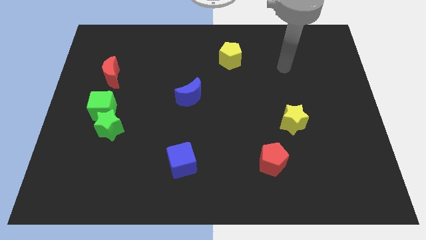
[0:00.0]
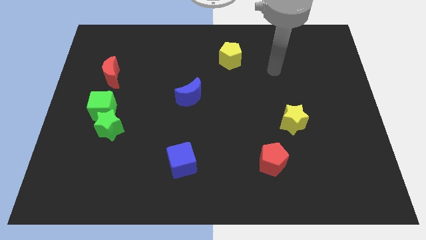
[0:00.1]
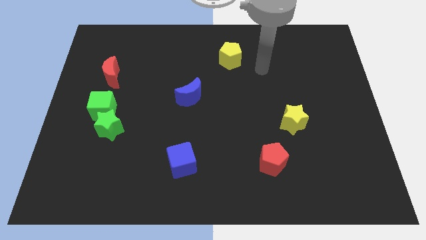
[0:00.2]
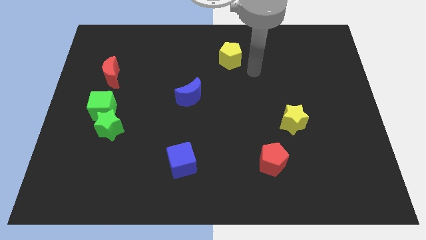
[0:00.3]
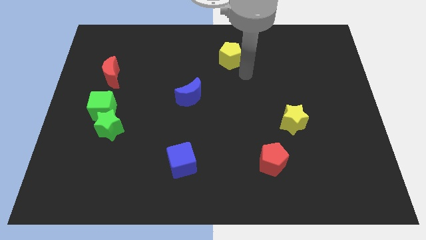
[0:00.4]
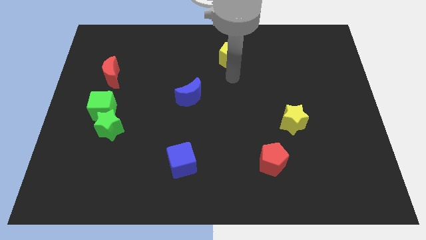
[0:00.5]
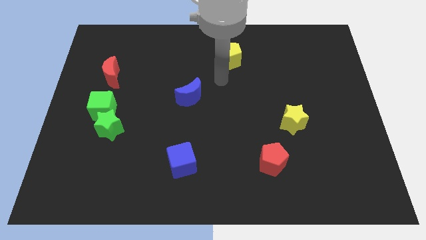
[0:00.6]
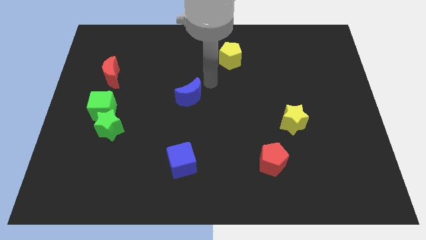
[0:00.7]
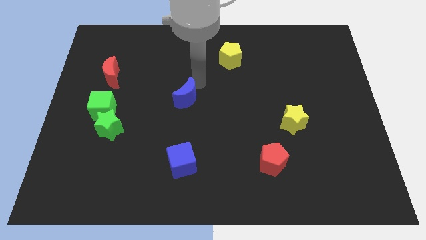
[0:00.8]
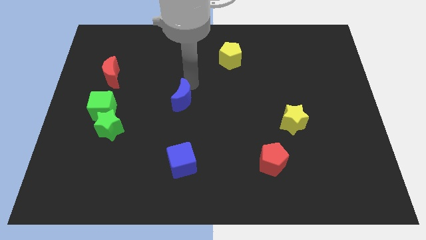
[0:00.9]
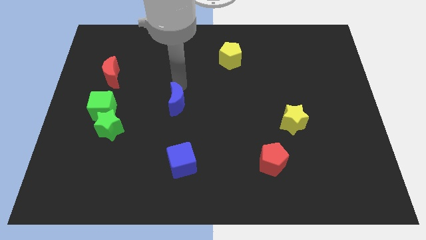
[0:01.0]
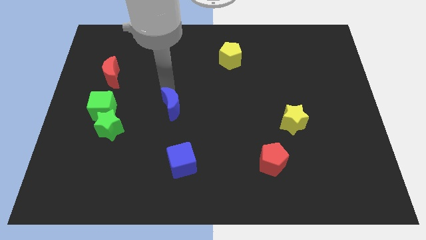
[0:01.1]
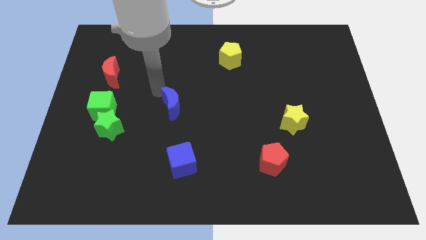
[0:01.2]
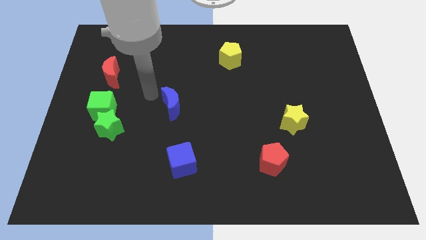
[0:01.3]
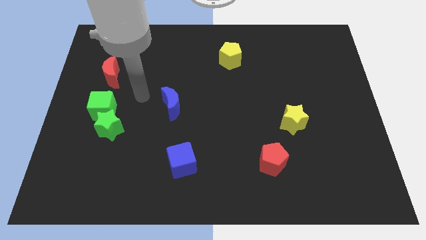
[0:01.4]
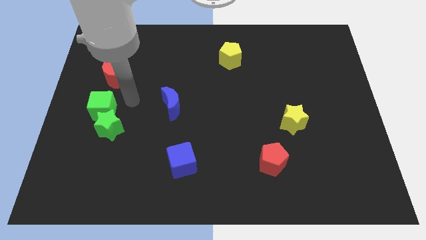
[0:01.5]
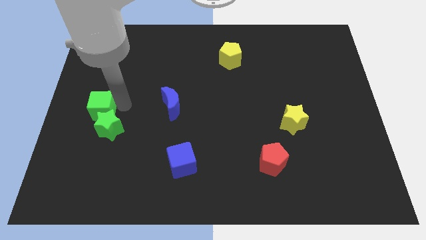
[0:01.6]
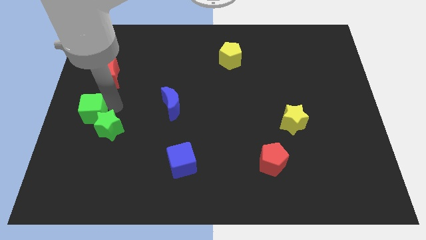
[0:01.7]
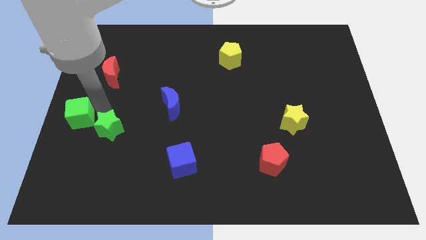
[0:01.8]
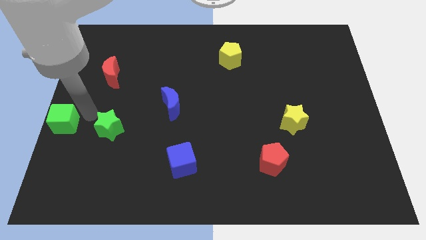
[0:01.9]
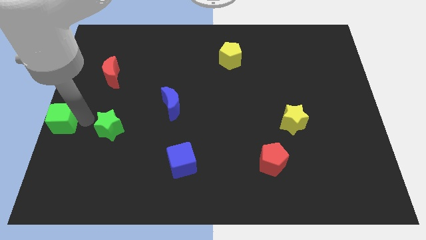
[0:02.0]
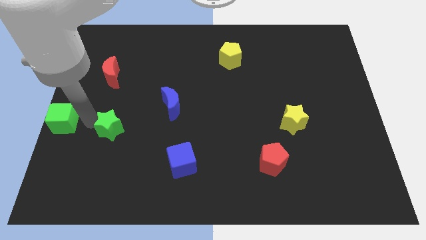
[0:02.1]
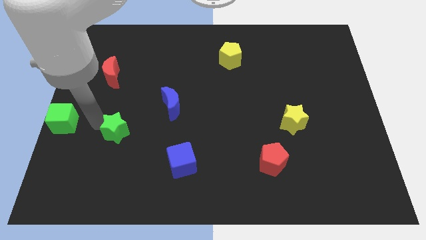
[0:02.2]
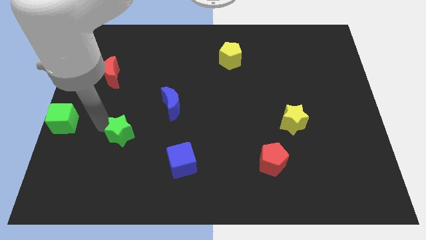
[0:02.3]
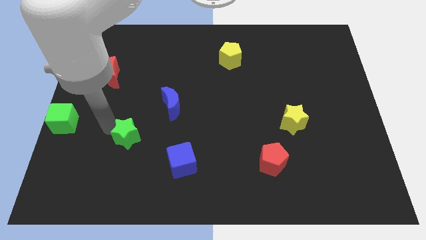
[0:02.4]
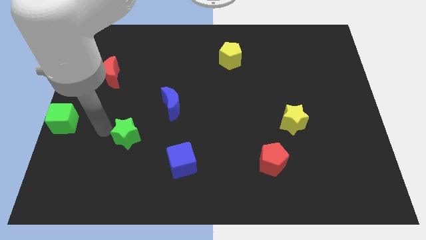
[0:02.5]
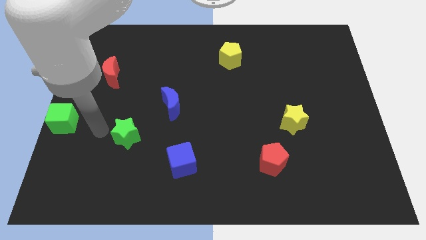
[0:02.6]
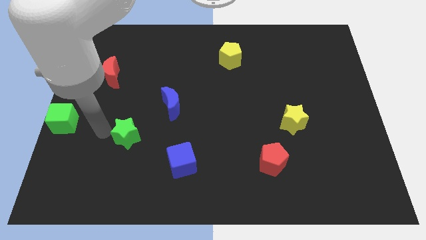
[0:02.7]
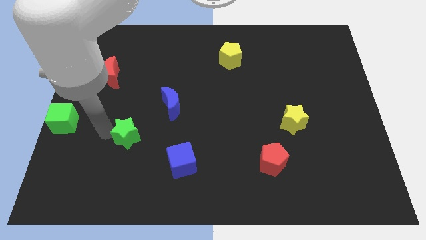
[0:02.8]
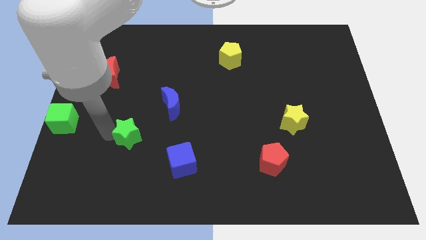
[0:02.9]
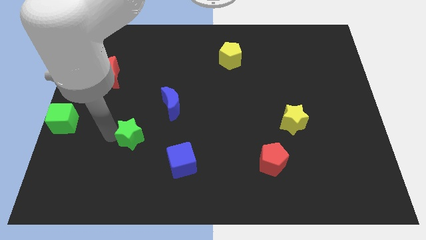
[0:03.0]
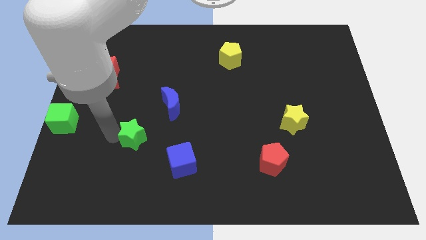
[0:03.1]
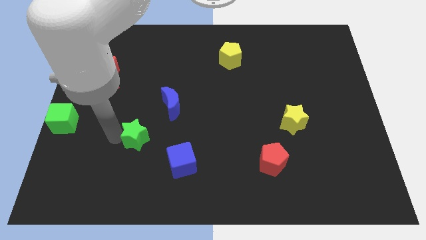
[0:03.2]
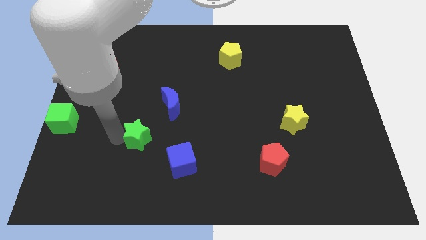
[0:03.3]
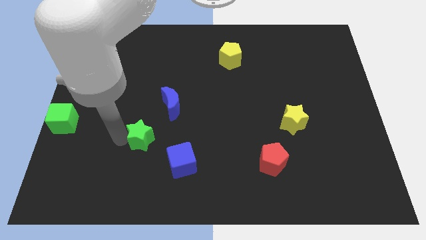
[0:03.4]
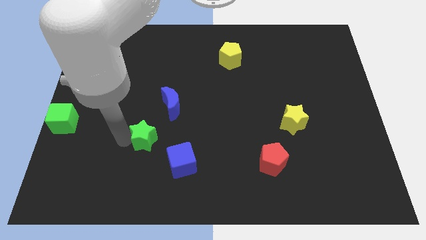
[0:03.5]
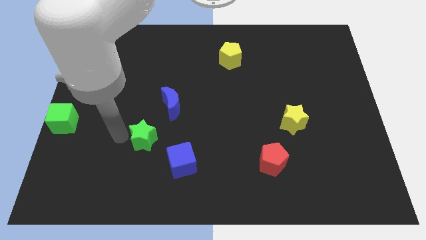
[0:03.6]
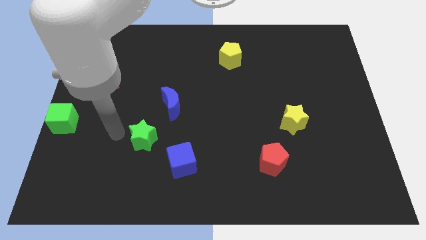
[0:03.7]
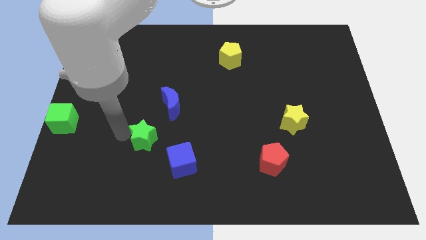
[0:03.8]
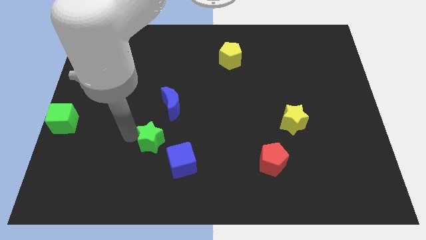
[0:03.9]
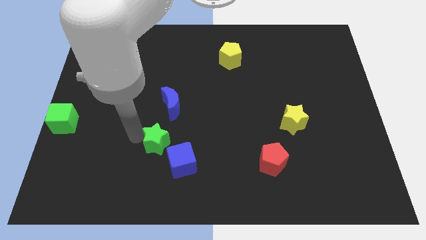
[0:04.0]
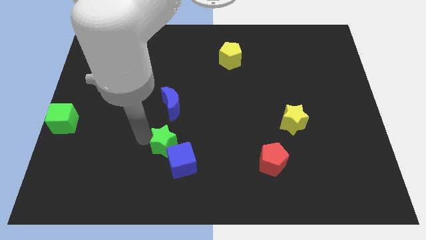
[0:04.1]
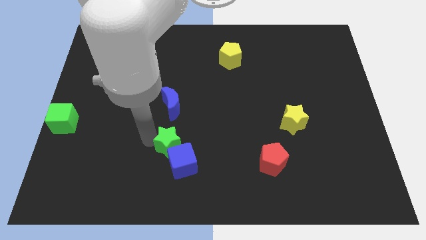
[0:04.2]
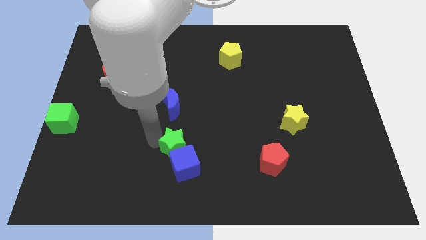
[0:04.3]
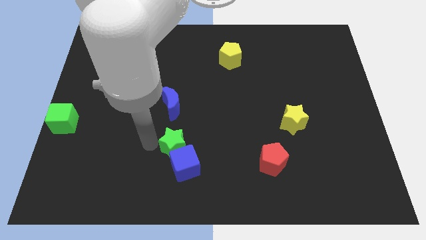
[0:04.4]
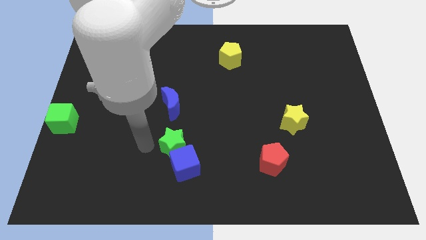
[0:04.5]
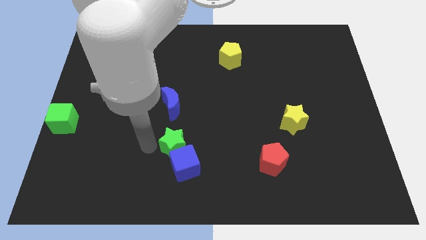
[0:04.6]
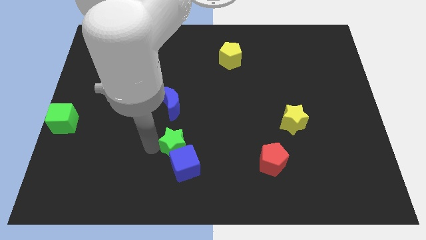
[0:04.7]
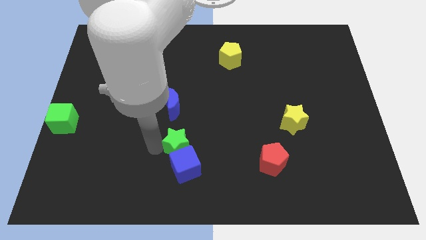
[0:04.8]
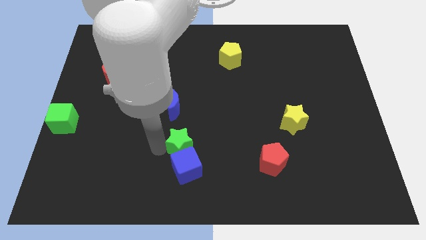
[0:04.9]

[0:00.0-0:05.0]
put the green star to the top right of the blue cube
